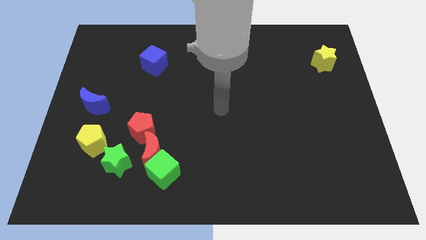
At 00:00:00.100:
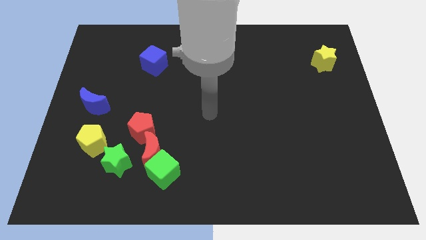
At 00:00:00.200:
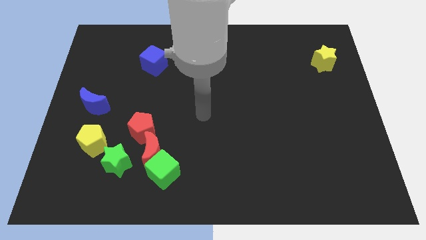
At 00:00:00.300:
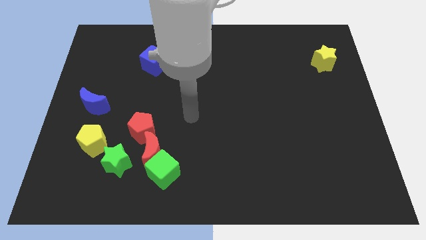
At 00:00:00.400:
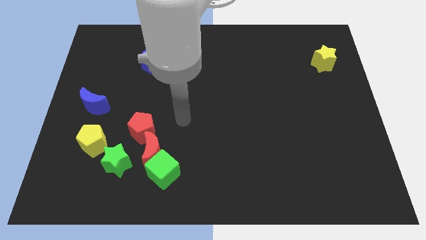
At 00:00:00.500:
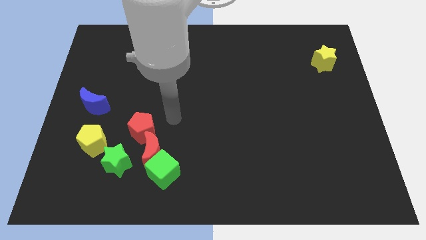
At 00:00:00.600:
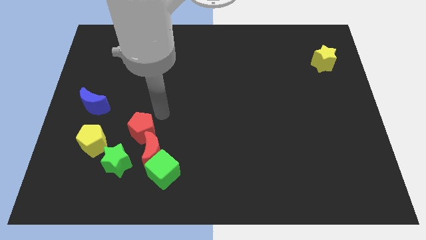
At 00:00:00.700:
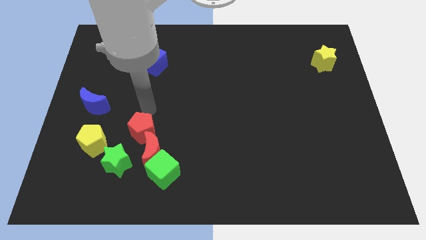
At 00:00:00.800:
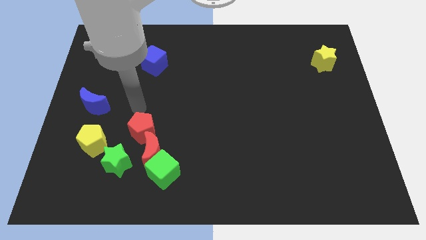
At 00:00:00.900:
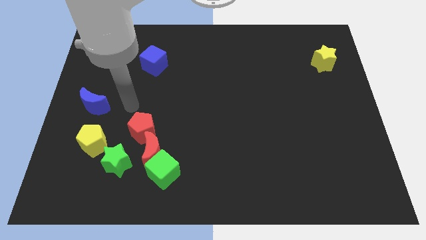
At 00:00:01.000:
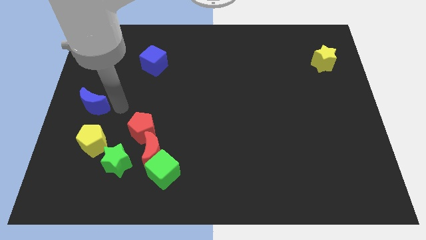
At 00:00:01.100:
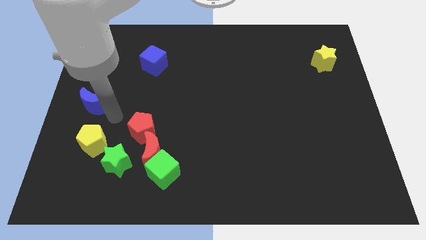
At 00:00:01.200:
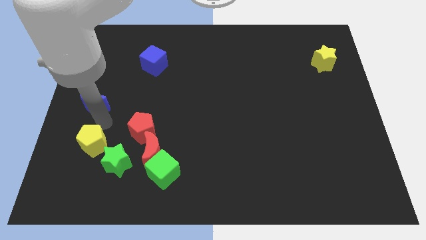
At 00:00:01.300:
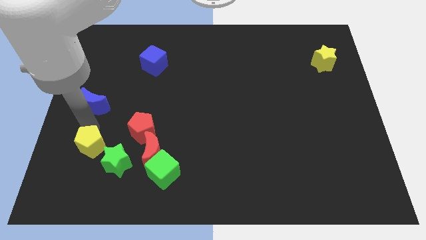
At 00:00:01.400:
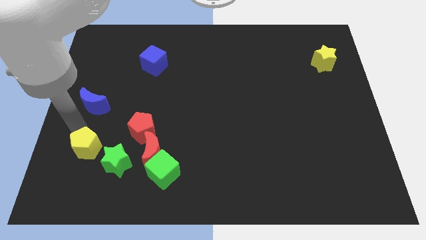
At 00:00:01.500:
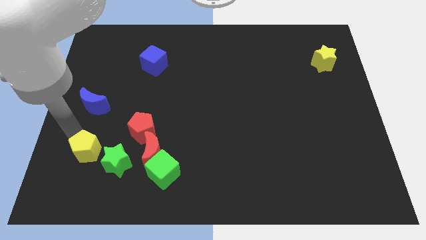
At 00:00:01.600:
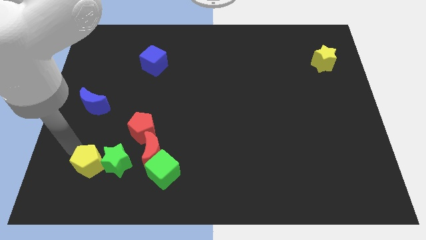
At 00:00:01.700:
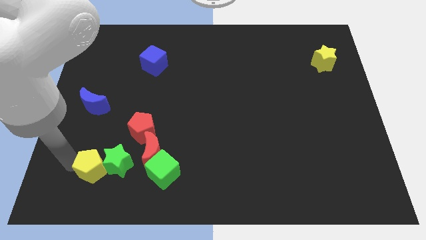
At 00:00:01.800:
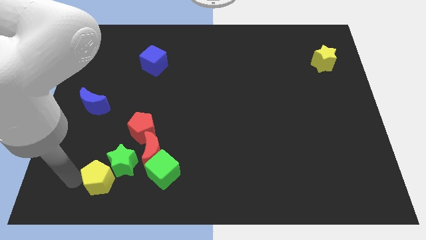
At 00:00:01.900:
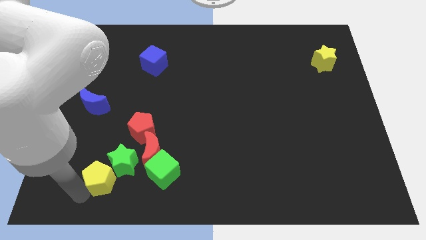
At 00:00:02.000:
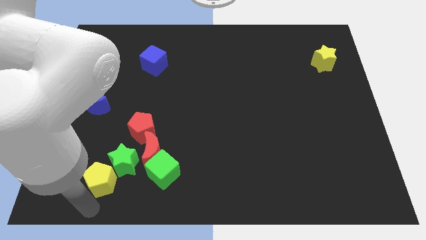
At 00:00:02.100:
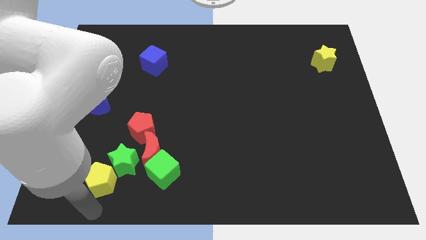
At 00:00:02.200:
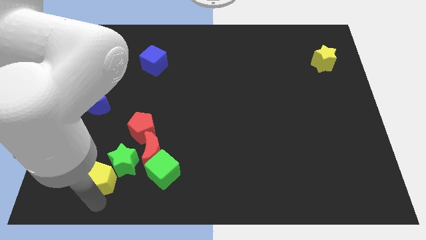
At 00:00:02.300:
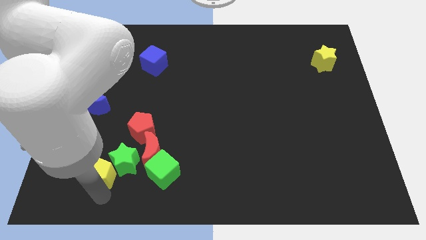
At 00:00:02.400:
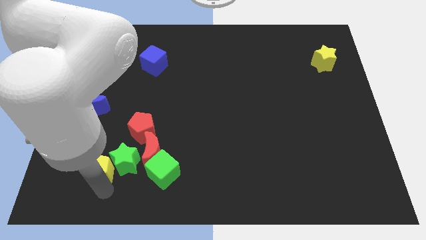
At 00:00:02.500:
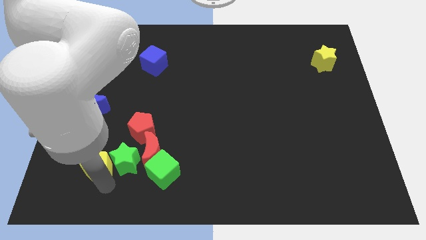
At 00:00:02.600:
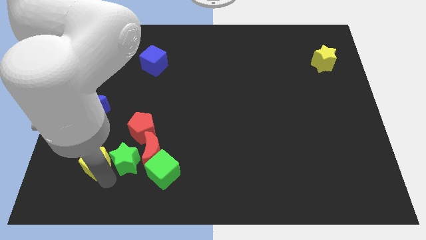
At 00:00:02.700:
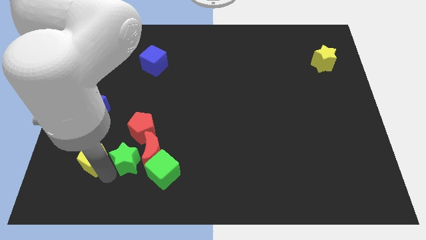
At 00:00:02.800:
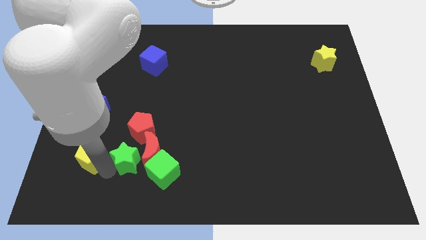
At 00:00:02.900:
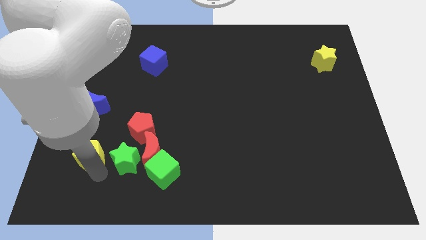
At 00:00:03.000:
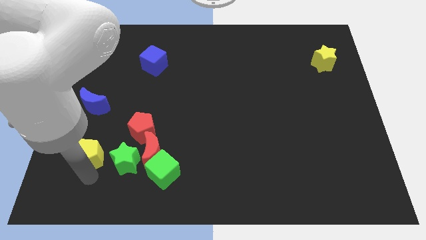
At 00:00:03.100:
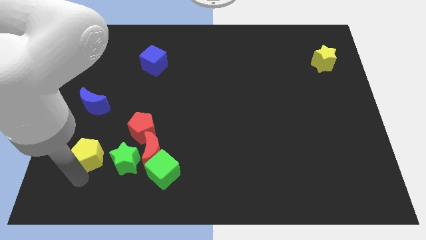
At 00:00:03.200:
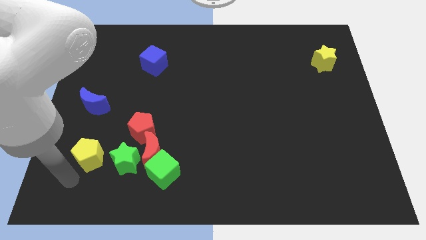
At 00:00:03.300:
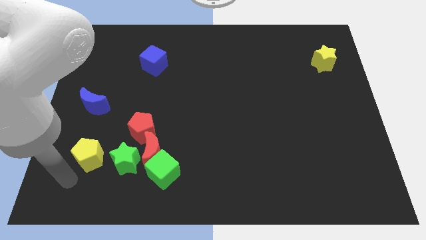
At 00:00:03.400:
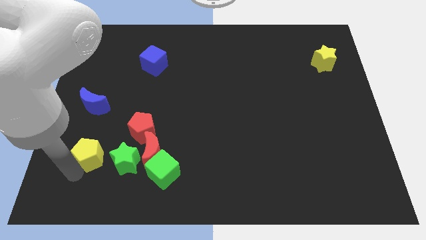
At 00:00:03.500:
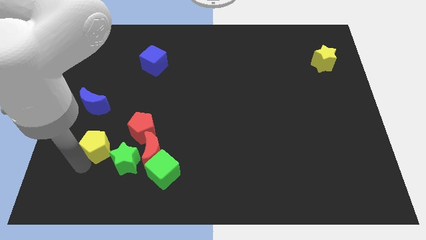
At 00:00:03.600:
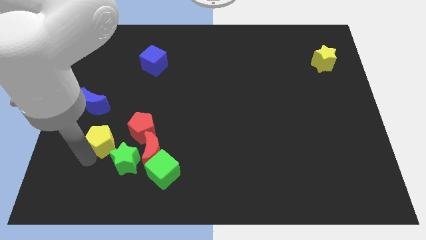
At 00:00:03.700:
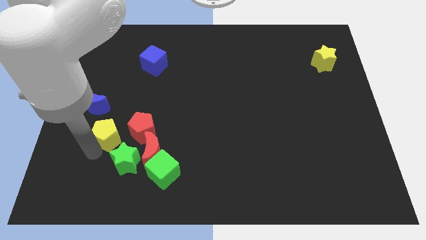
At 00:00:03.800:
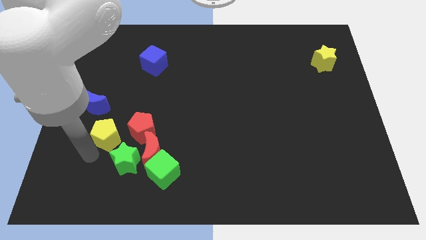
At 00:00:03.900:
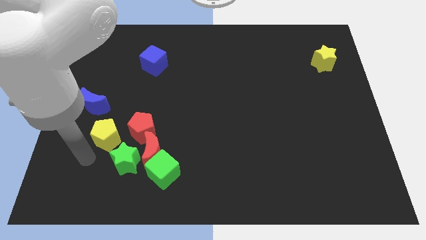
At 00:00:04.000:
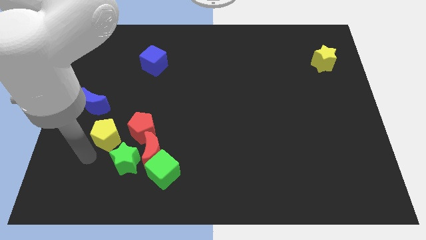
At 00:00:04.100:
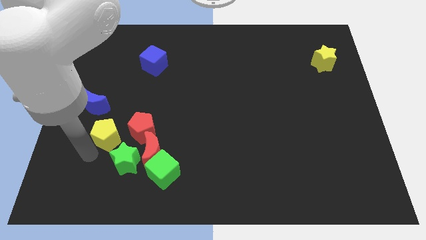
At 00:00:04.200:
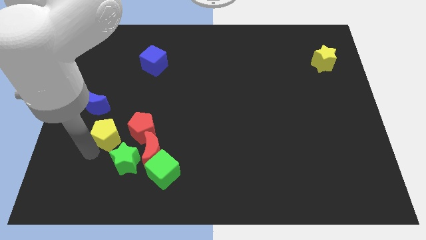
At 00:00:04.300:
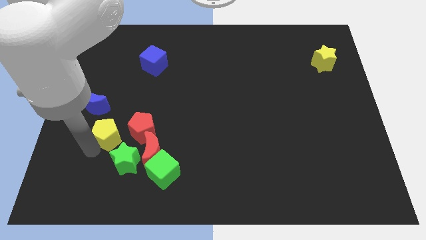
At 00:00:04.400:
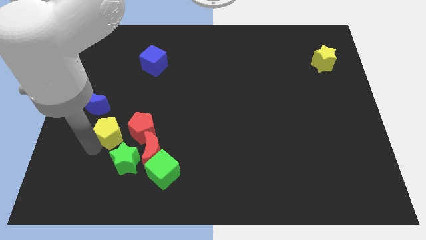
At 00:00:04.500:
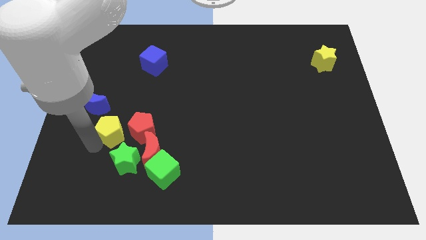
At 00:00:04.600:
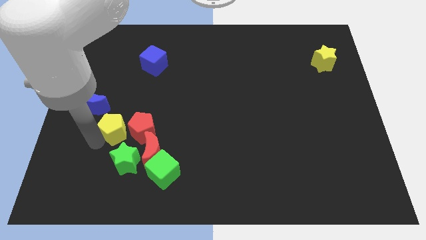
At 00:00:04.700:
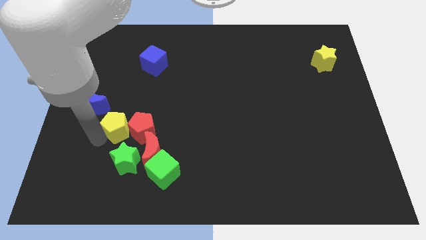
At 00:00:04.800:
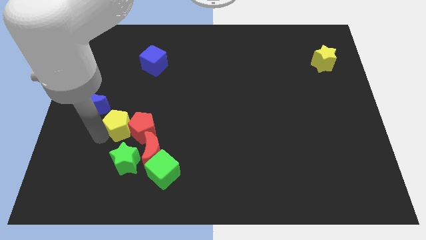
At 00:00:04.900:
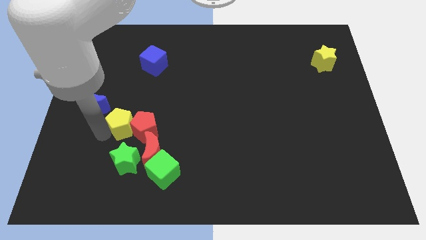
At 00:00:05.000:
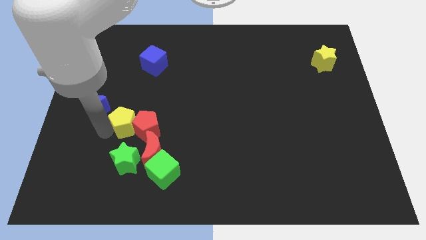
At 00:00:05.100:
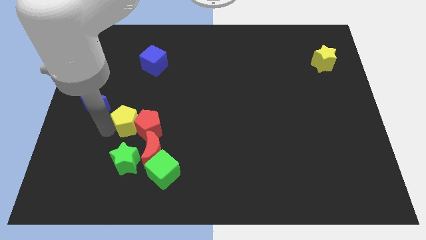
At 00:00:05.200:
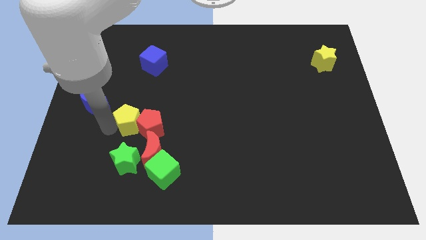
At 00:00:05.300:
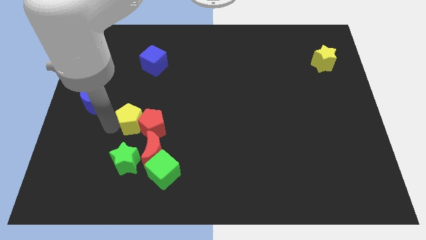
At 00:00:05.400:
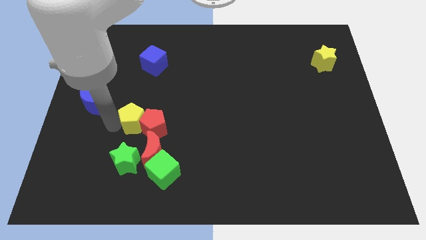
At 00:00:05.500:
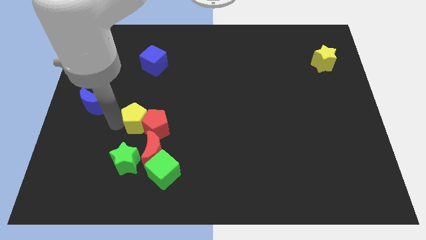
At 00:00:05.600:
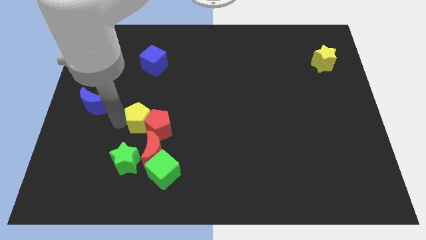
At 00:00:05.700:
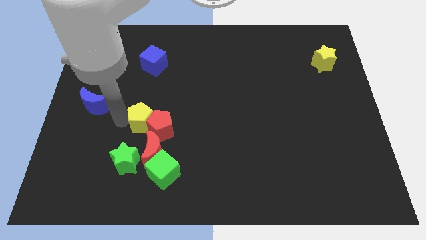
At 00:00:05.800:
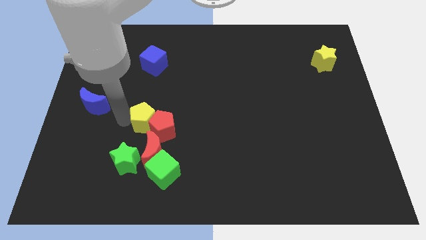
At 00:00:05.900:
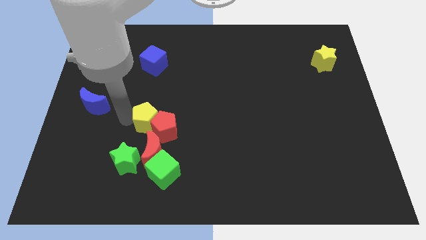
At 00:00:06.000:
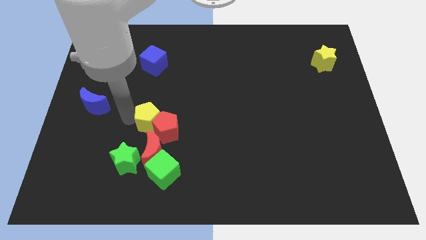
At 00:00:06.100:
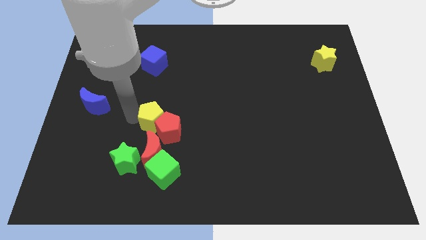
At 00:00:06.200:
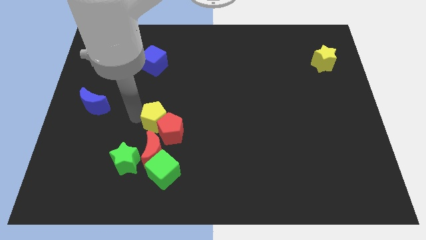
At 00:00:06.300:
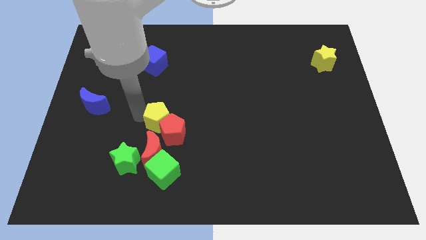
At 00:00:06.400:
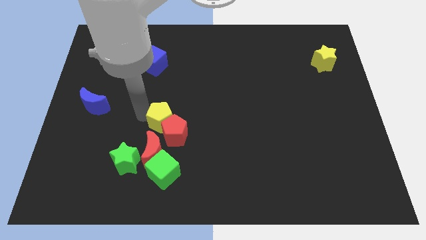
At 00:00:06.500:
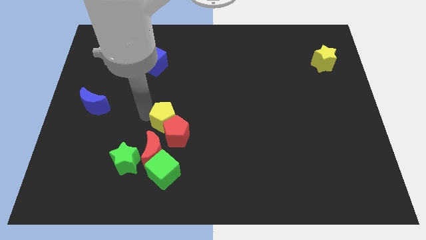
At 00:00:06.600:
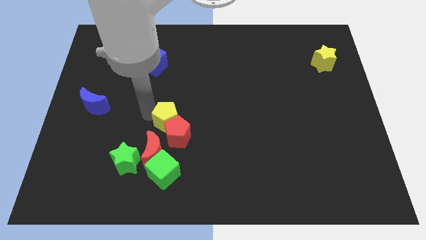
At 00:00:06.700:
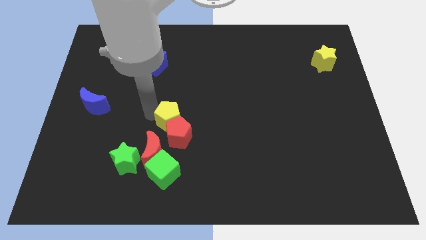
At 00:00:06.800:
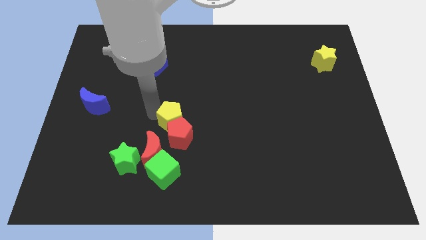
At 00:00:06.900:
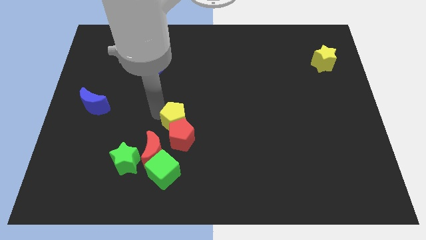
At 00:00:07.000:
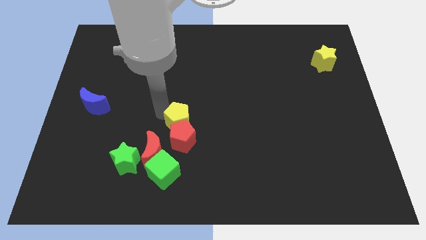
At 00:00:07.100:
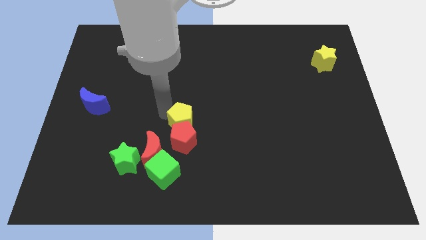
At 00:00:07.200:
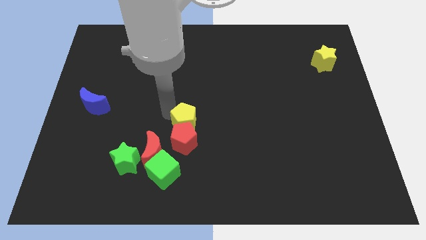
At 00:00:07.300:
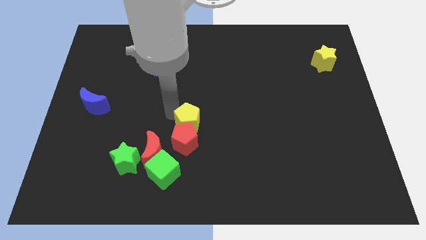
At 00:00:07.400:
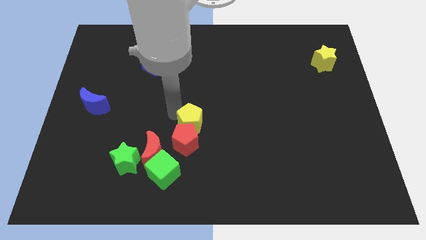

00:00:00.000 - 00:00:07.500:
slide the yellow pentagon right

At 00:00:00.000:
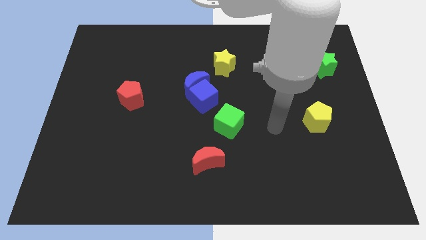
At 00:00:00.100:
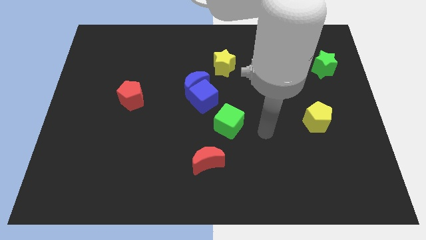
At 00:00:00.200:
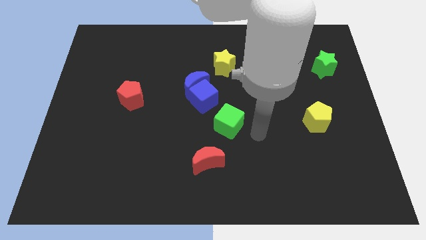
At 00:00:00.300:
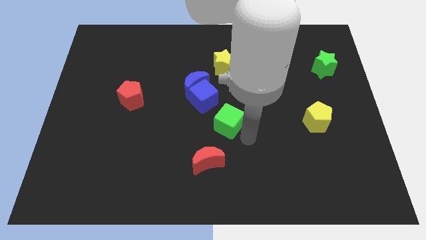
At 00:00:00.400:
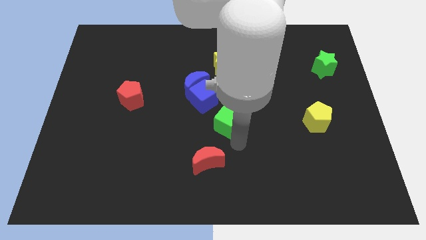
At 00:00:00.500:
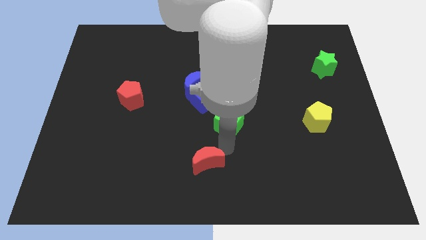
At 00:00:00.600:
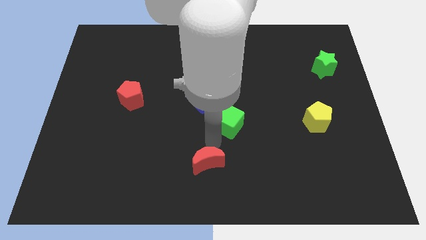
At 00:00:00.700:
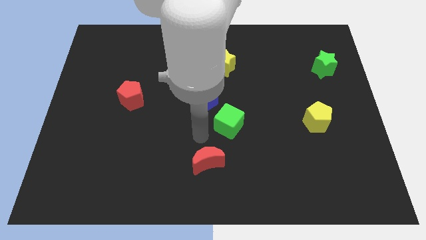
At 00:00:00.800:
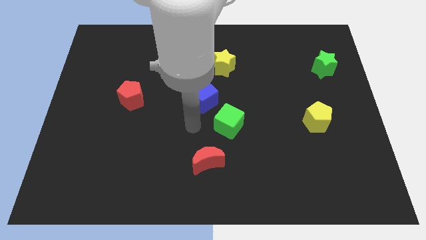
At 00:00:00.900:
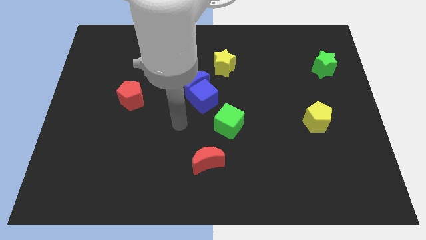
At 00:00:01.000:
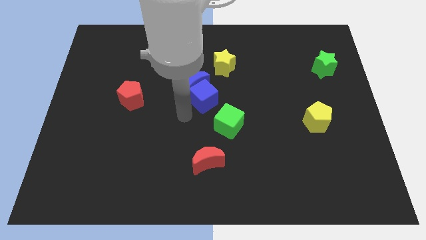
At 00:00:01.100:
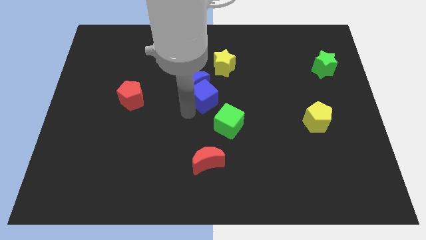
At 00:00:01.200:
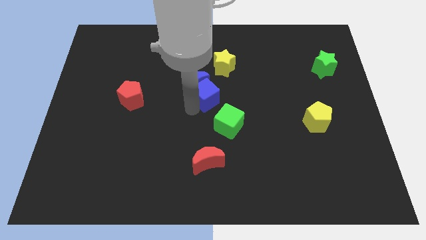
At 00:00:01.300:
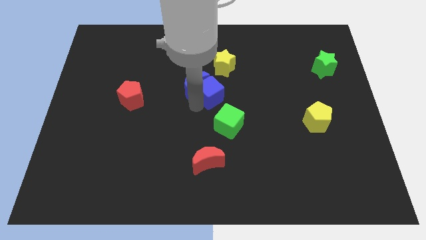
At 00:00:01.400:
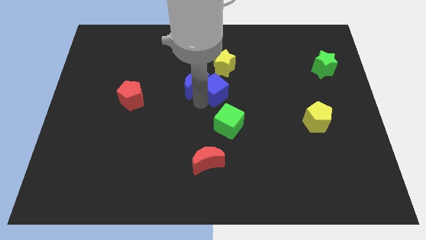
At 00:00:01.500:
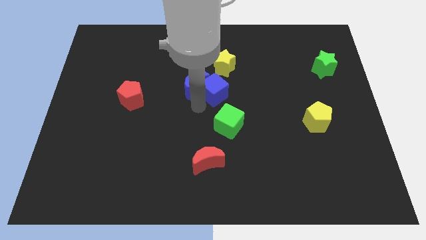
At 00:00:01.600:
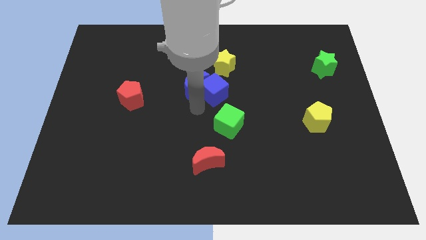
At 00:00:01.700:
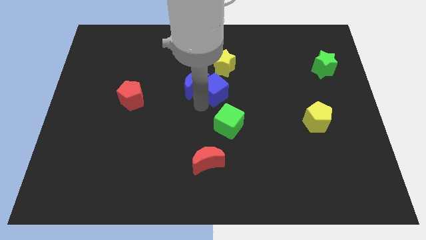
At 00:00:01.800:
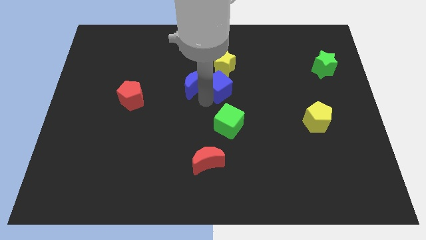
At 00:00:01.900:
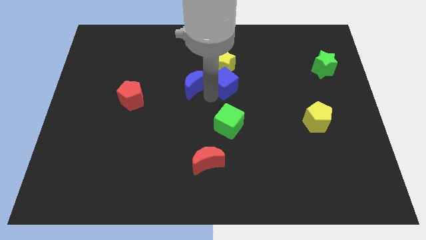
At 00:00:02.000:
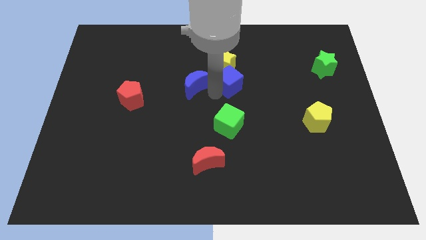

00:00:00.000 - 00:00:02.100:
slide the blue cube a little up and then to the right
